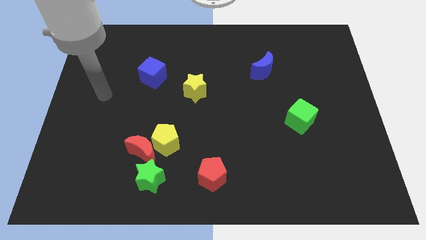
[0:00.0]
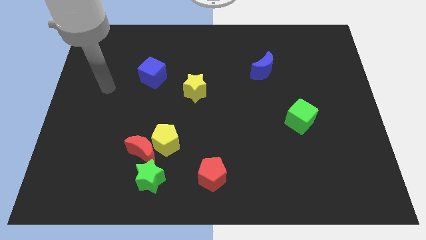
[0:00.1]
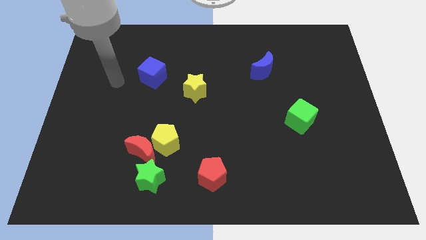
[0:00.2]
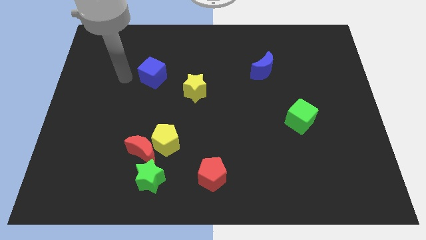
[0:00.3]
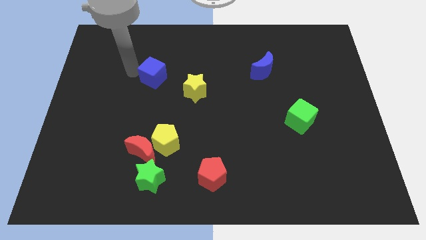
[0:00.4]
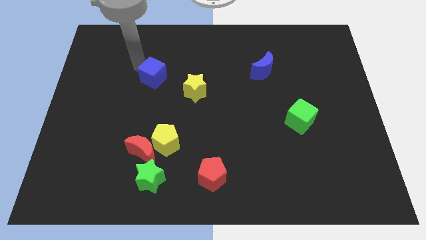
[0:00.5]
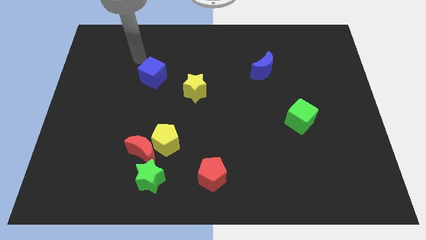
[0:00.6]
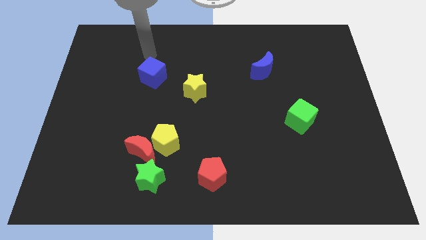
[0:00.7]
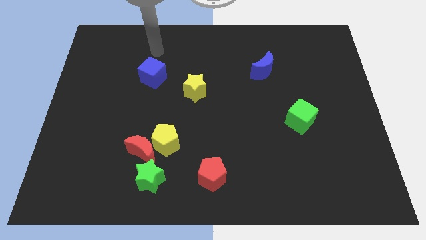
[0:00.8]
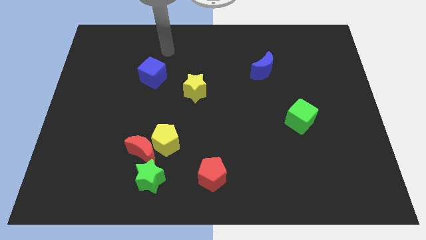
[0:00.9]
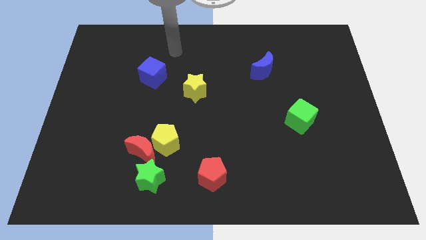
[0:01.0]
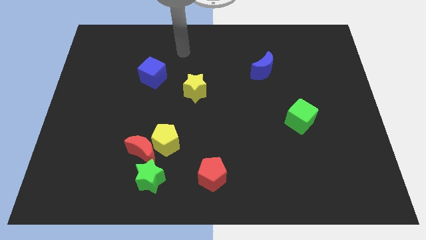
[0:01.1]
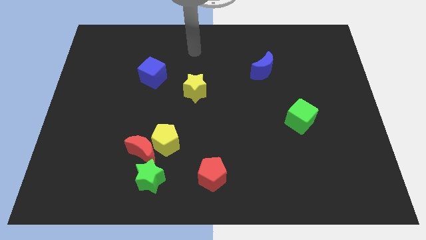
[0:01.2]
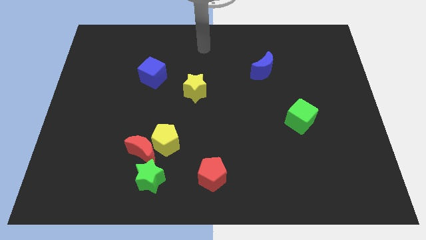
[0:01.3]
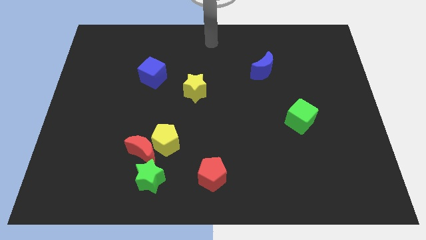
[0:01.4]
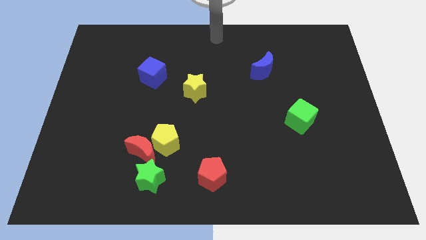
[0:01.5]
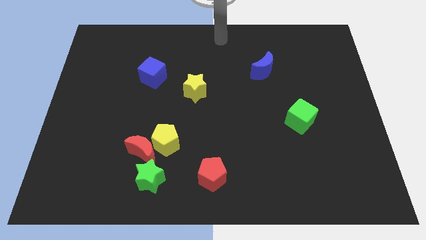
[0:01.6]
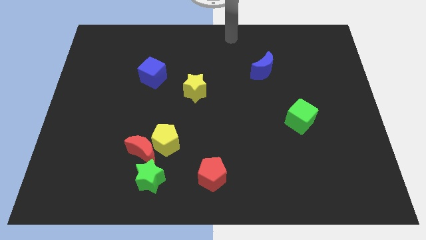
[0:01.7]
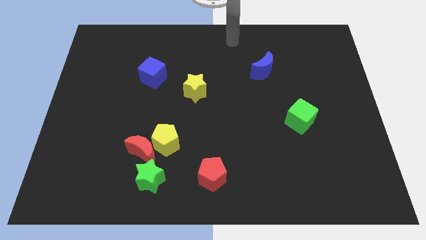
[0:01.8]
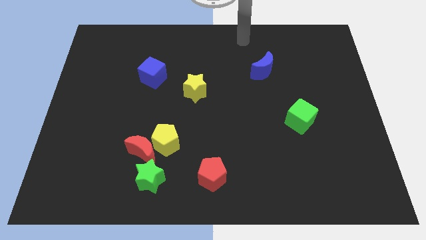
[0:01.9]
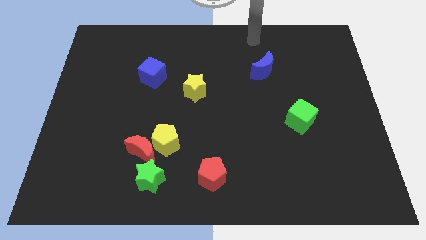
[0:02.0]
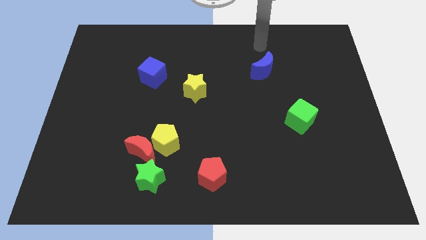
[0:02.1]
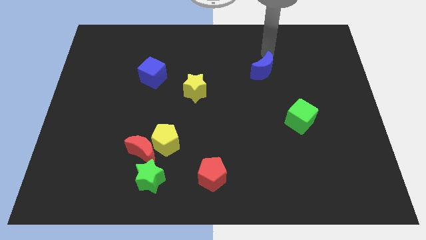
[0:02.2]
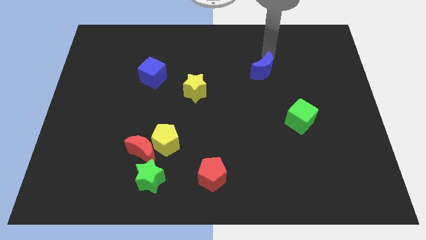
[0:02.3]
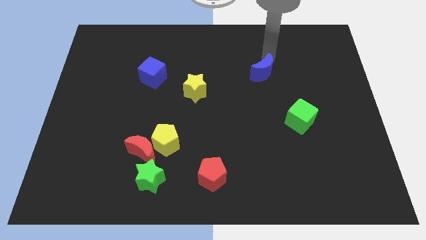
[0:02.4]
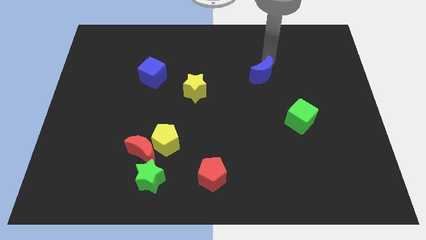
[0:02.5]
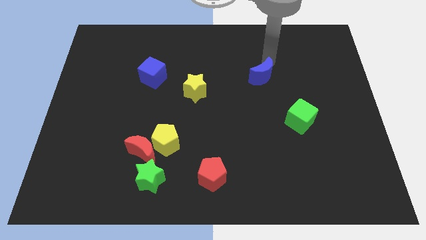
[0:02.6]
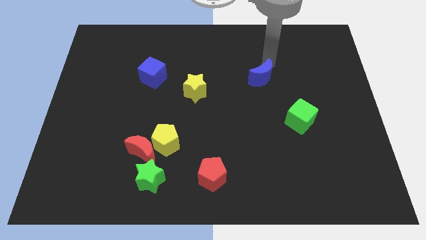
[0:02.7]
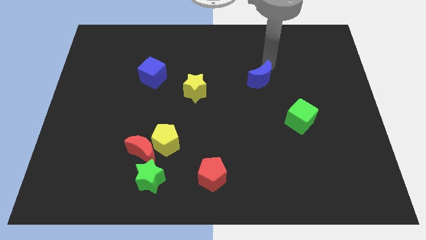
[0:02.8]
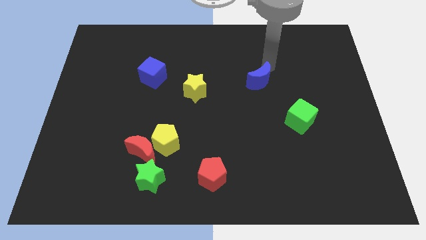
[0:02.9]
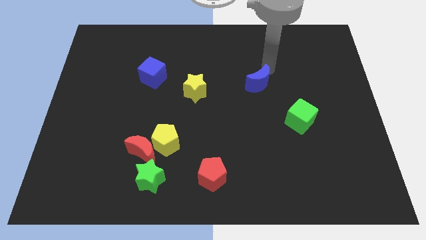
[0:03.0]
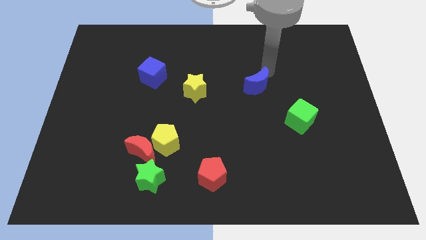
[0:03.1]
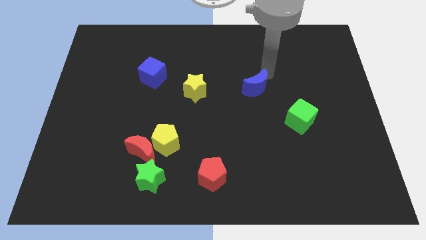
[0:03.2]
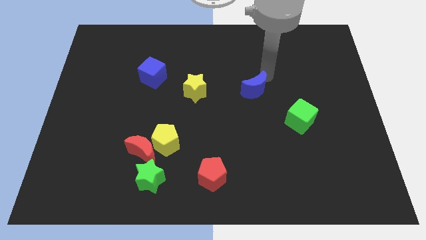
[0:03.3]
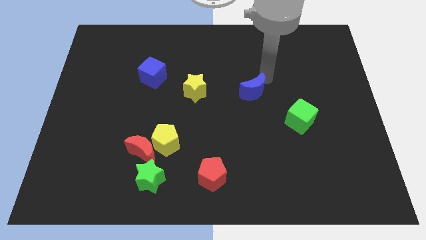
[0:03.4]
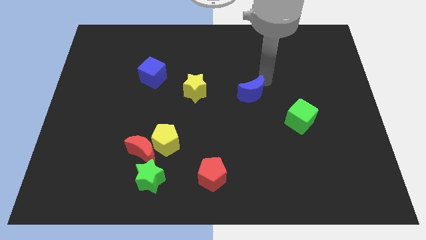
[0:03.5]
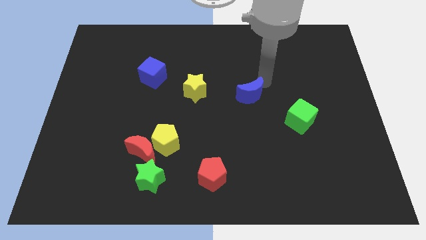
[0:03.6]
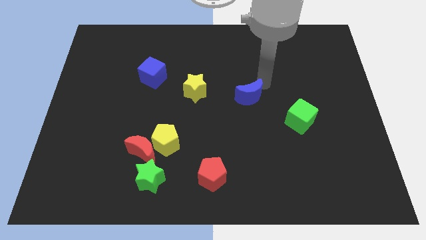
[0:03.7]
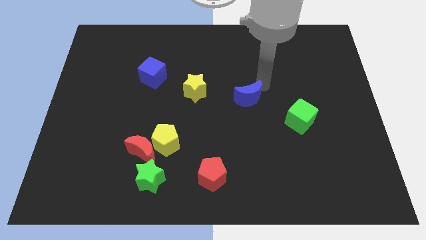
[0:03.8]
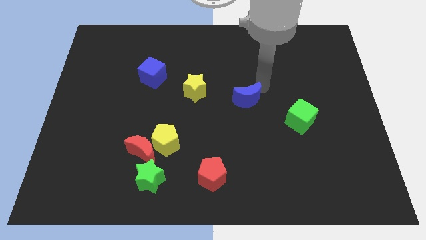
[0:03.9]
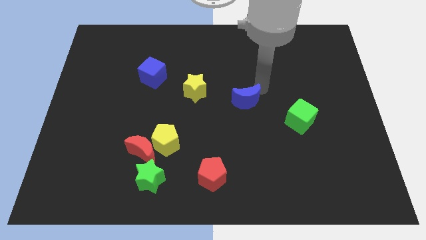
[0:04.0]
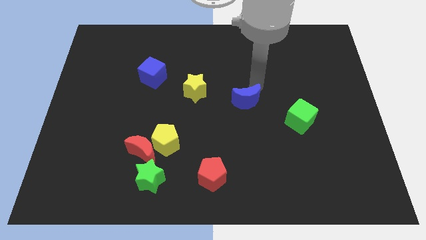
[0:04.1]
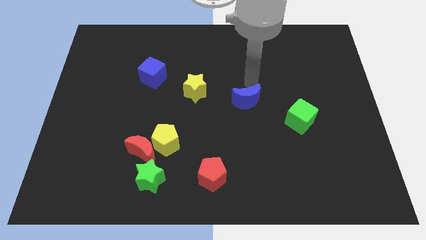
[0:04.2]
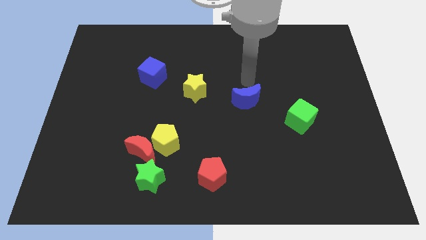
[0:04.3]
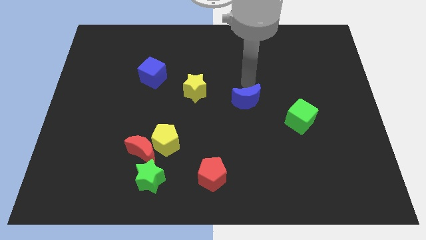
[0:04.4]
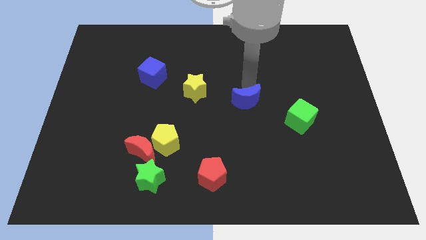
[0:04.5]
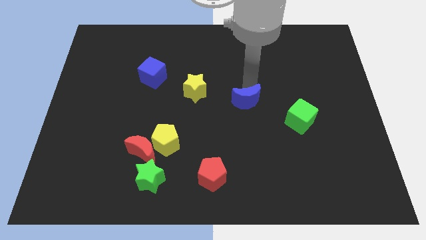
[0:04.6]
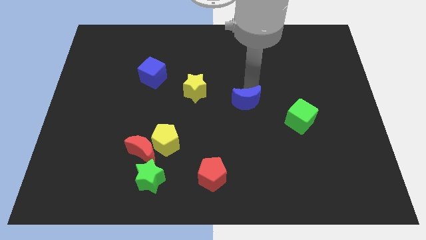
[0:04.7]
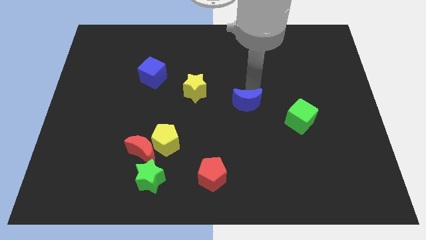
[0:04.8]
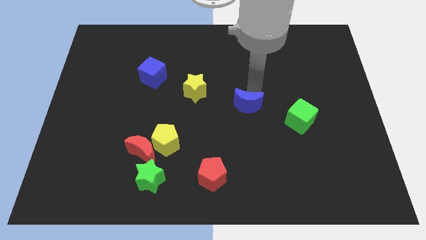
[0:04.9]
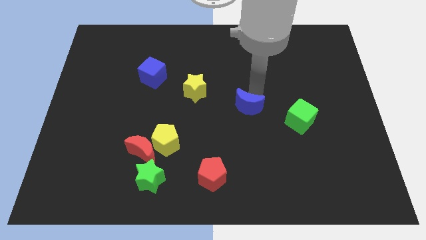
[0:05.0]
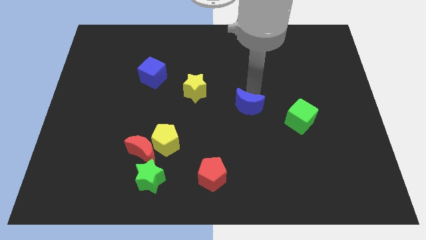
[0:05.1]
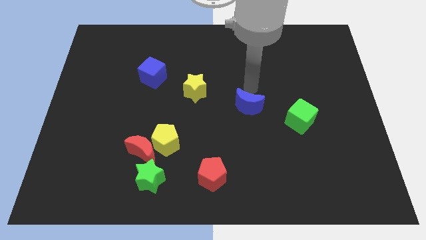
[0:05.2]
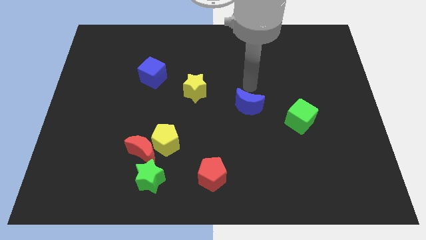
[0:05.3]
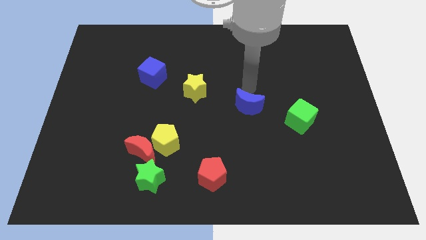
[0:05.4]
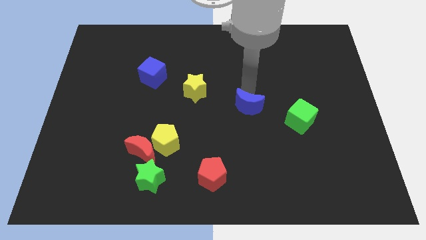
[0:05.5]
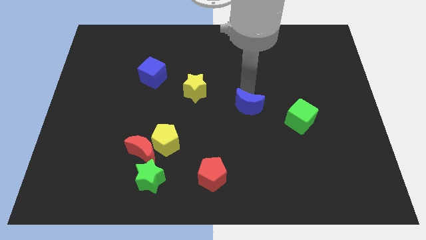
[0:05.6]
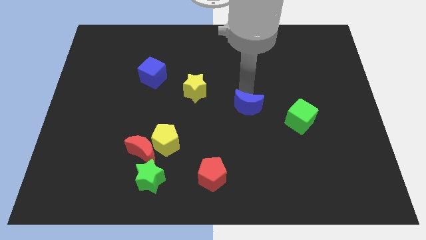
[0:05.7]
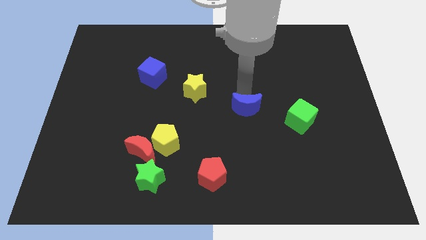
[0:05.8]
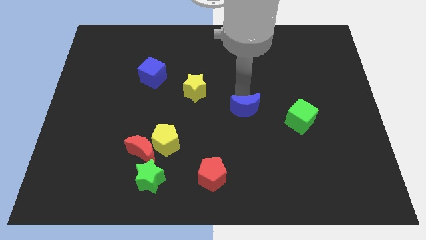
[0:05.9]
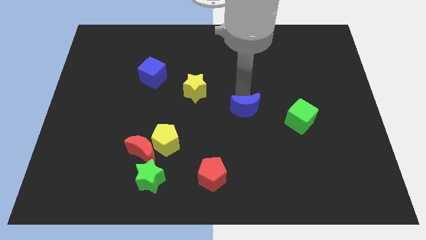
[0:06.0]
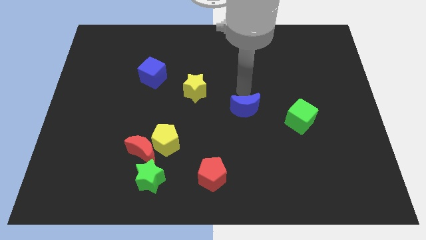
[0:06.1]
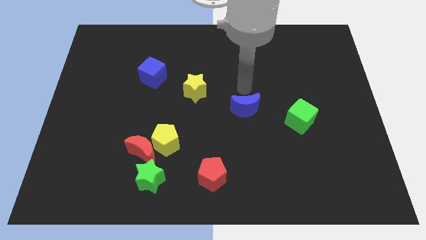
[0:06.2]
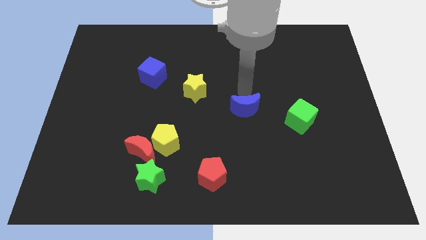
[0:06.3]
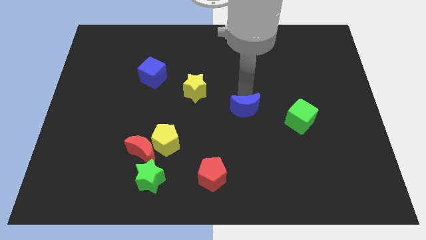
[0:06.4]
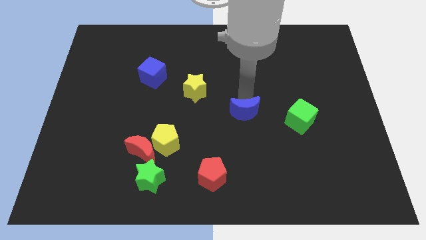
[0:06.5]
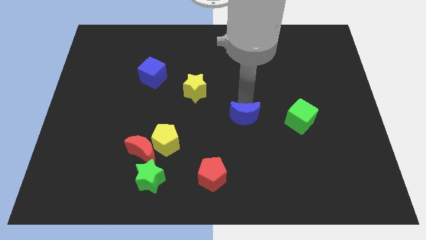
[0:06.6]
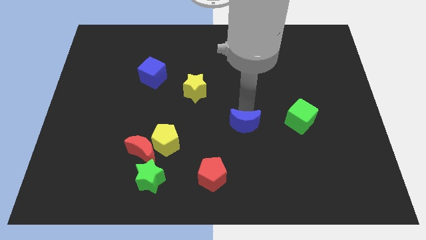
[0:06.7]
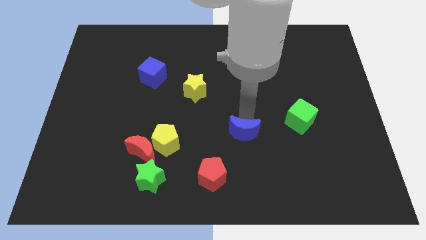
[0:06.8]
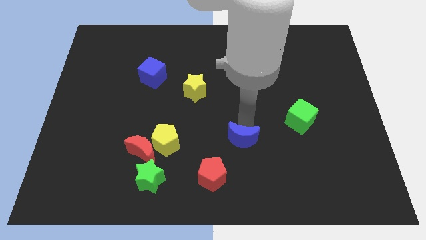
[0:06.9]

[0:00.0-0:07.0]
slide the blue moon diagonally up and to the right of the red pentagon
